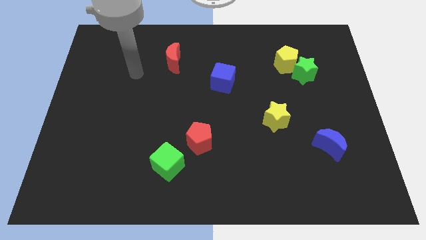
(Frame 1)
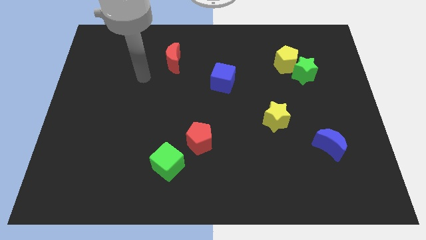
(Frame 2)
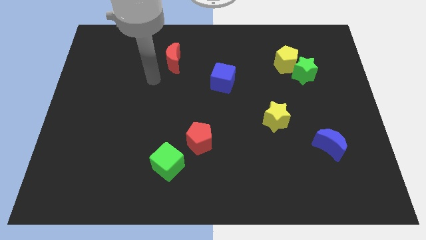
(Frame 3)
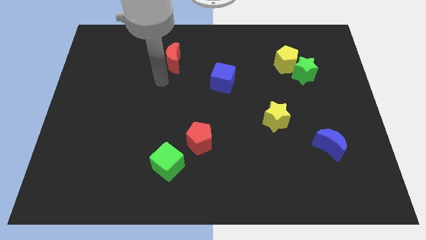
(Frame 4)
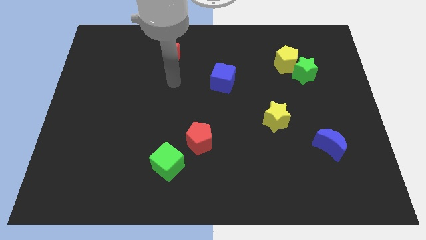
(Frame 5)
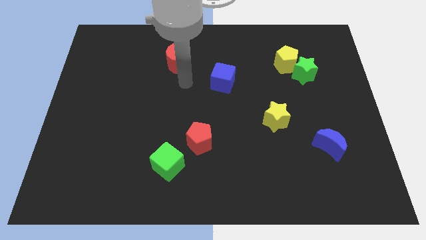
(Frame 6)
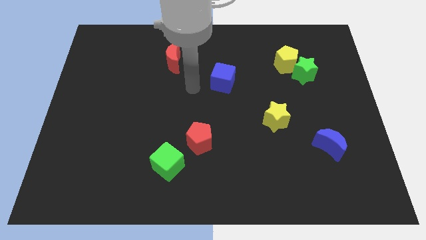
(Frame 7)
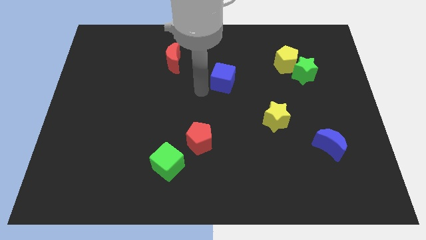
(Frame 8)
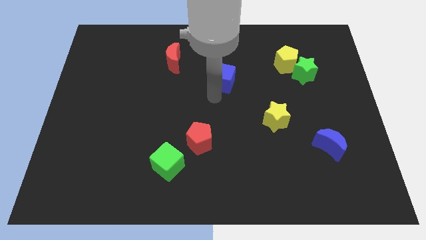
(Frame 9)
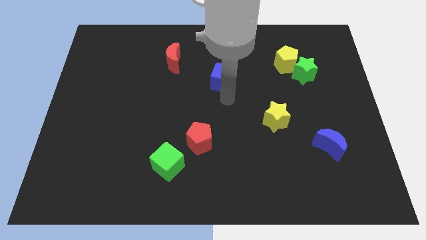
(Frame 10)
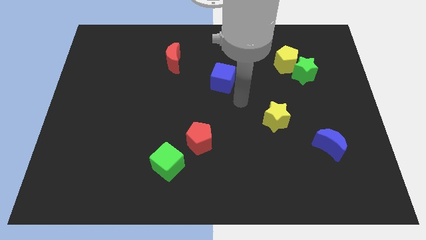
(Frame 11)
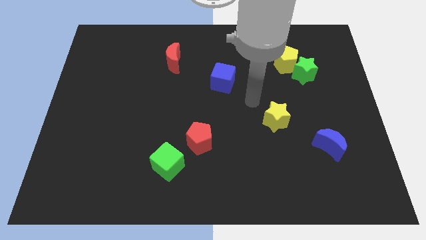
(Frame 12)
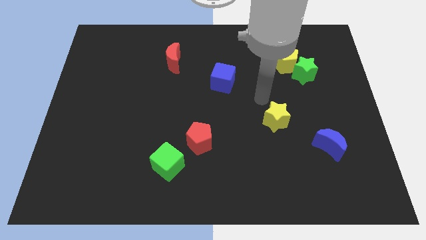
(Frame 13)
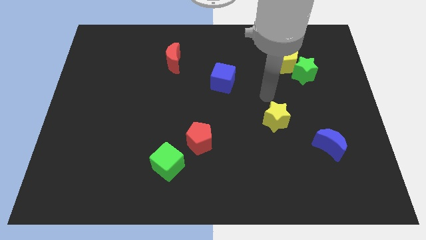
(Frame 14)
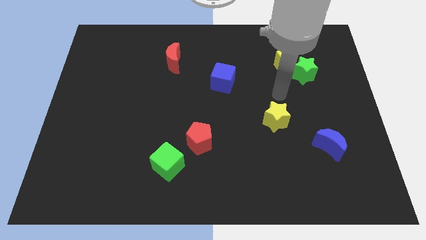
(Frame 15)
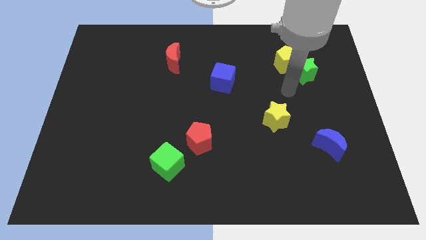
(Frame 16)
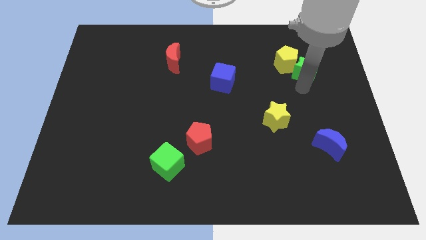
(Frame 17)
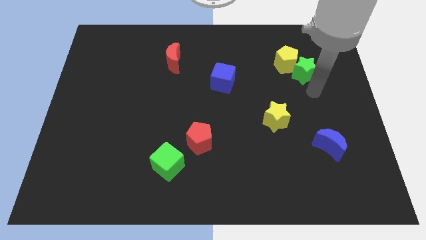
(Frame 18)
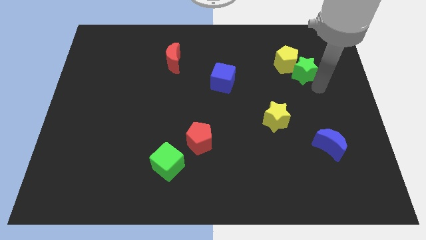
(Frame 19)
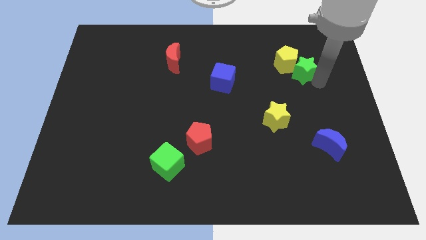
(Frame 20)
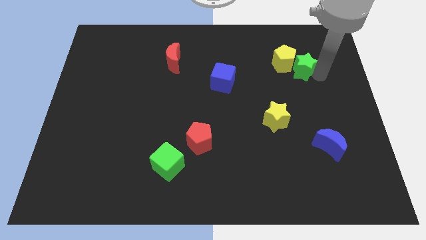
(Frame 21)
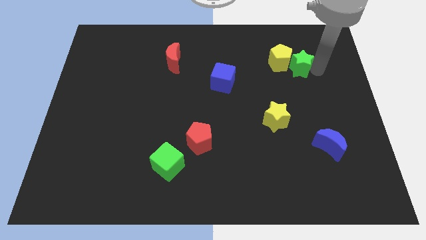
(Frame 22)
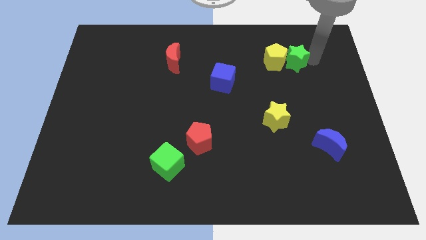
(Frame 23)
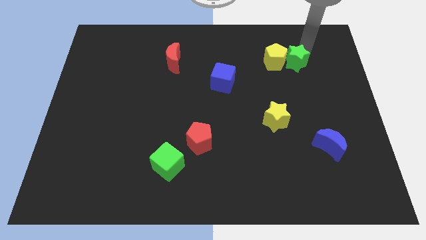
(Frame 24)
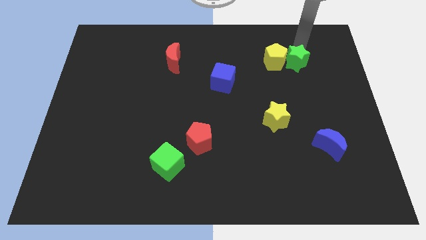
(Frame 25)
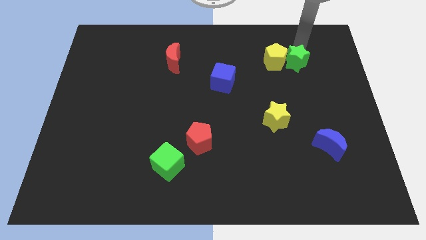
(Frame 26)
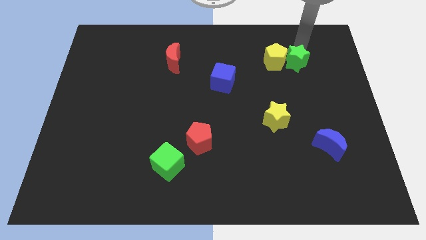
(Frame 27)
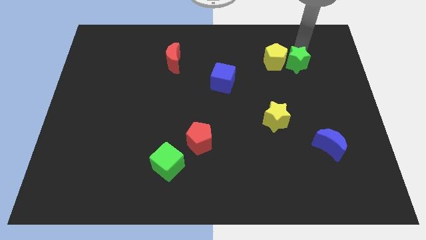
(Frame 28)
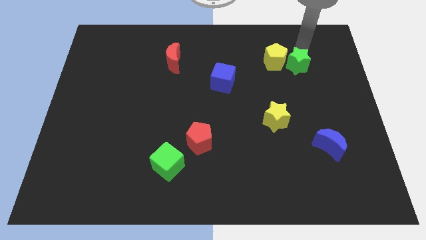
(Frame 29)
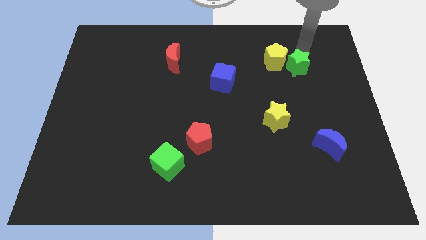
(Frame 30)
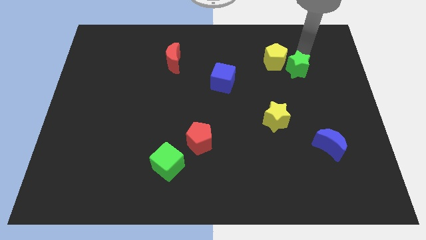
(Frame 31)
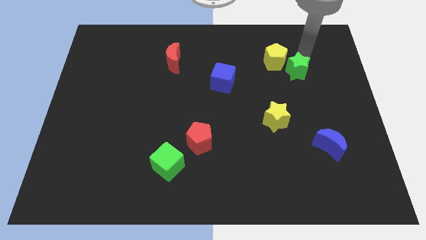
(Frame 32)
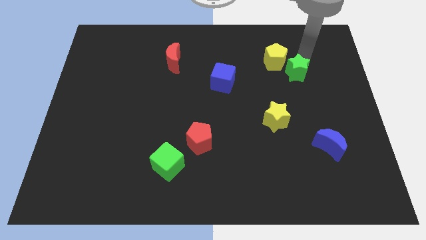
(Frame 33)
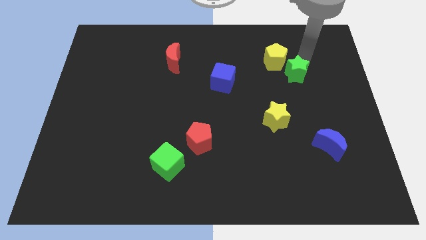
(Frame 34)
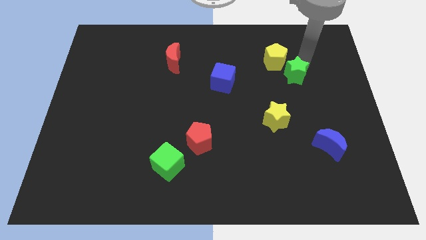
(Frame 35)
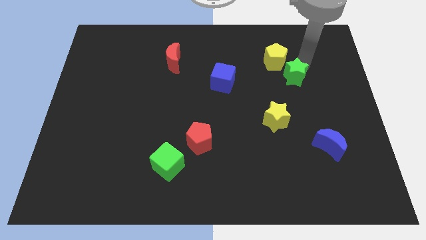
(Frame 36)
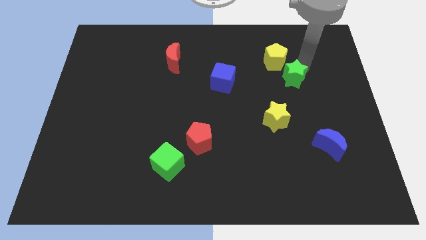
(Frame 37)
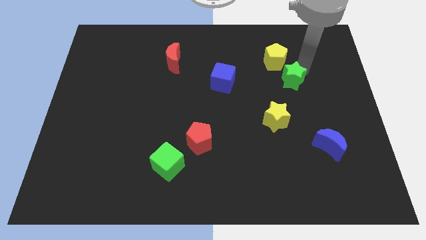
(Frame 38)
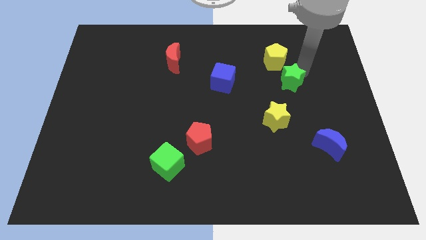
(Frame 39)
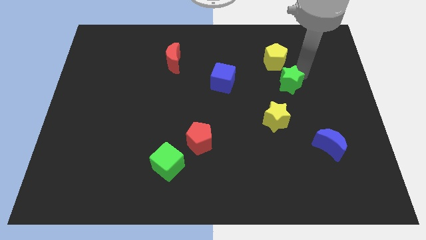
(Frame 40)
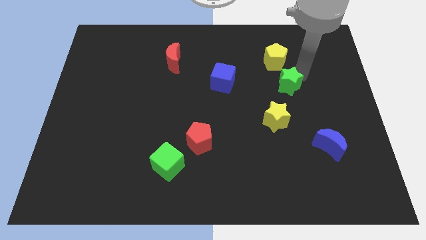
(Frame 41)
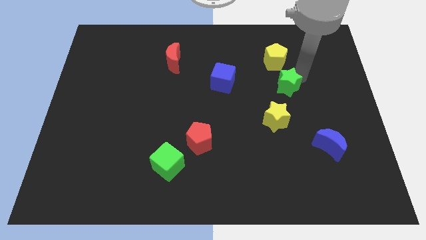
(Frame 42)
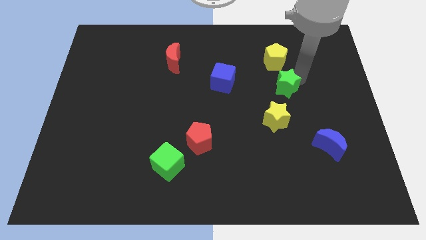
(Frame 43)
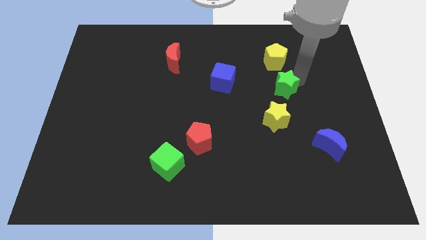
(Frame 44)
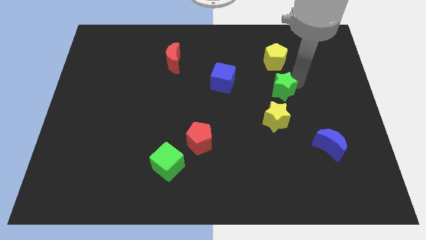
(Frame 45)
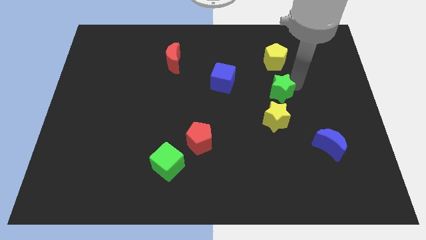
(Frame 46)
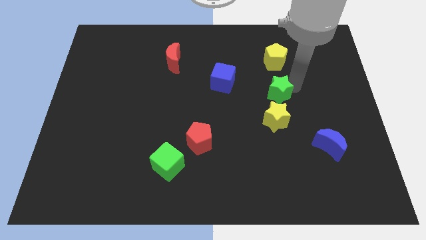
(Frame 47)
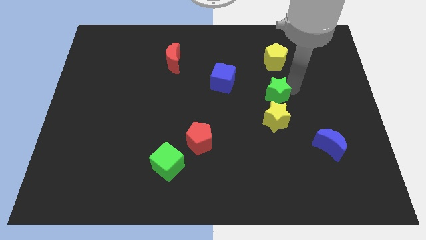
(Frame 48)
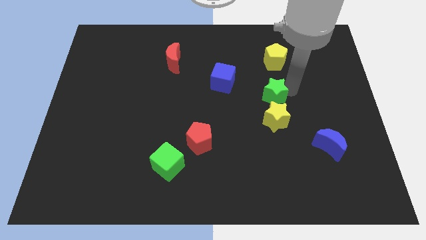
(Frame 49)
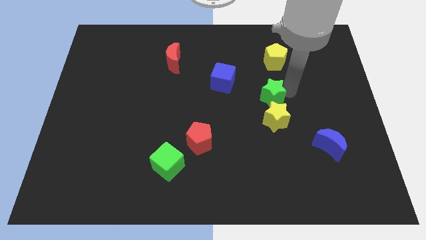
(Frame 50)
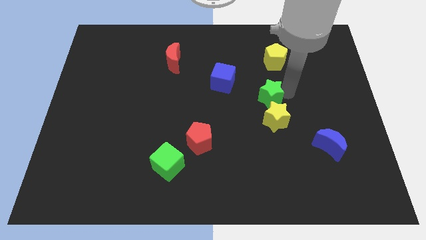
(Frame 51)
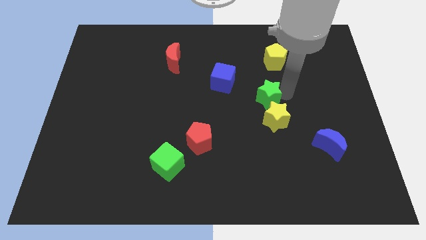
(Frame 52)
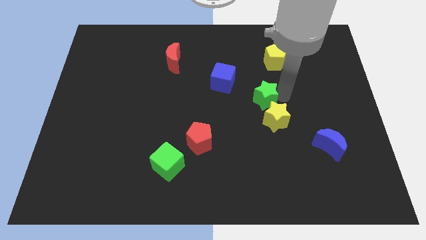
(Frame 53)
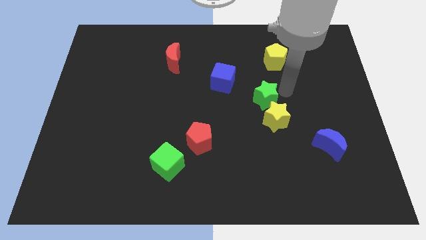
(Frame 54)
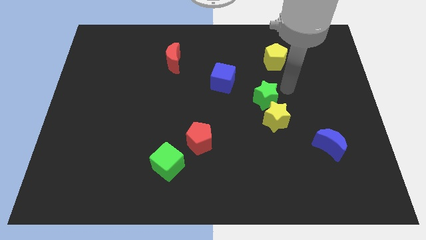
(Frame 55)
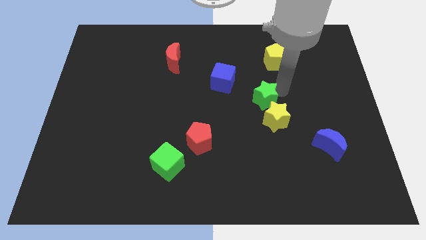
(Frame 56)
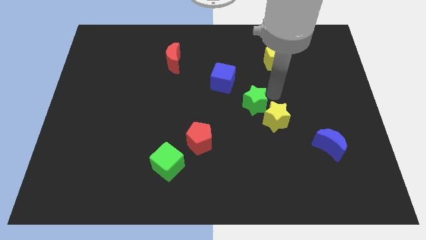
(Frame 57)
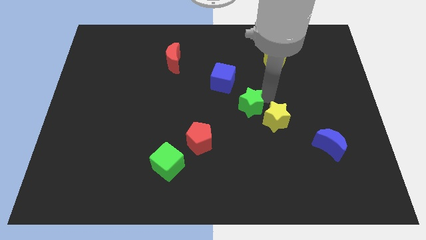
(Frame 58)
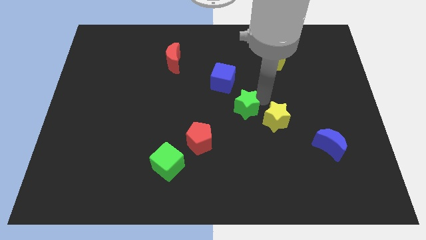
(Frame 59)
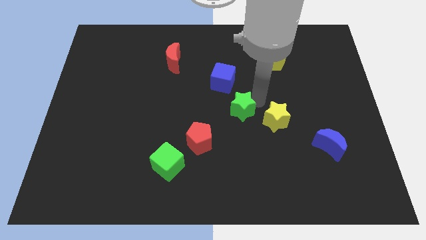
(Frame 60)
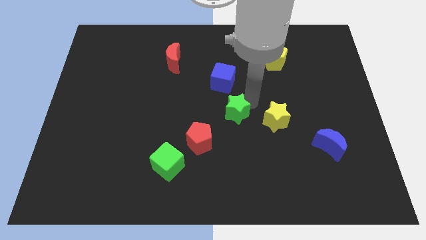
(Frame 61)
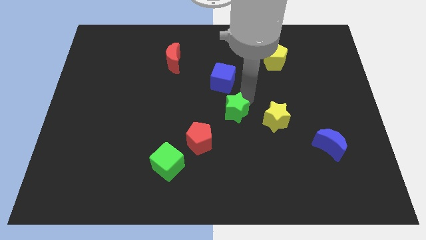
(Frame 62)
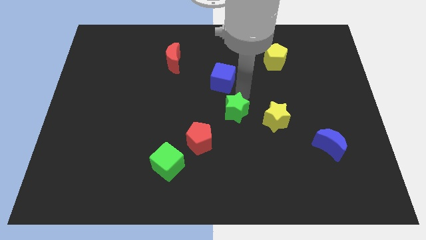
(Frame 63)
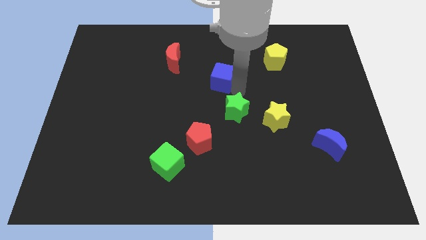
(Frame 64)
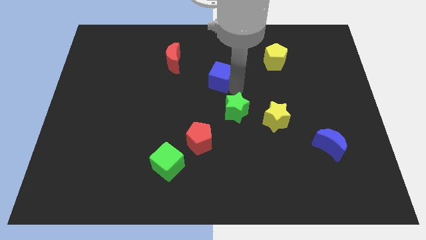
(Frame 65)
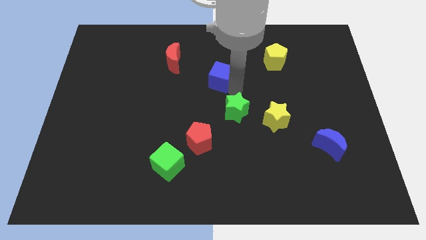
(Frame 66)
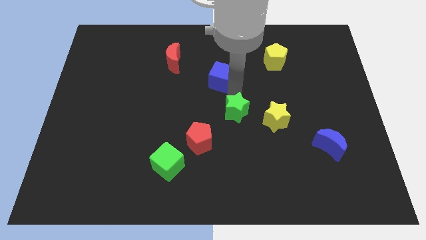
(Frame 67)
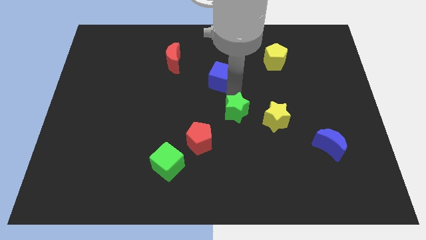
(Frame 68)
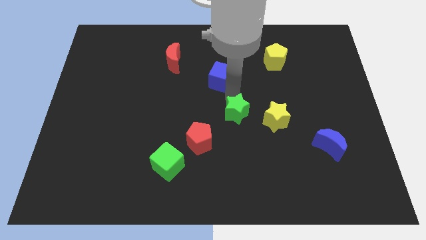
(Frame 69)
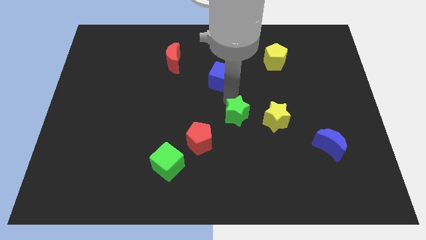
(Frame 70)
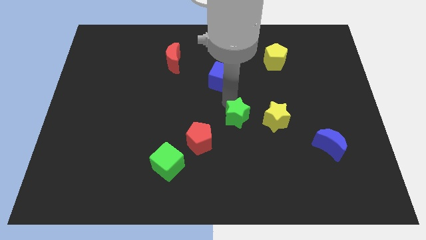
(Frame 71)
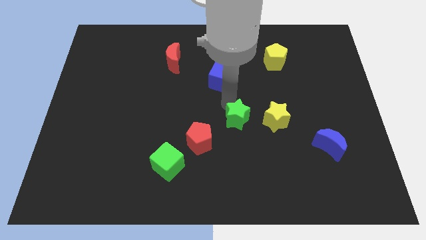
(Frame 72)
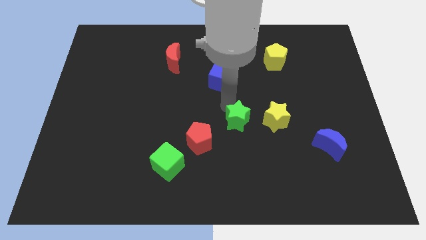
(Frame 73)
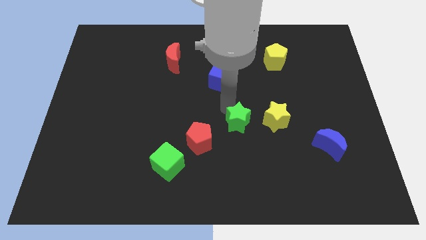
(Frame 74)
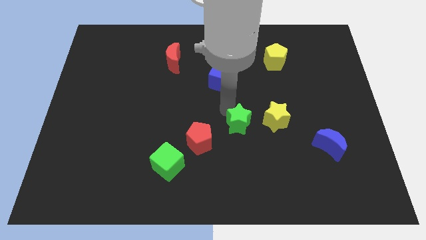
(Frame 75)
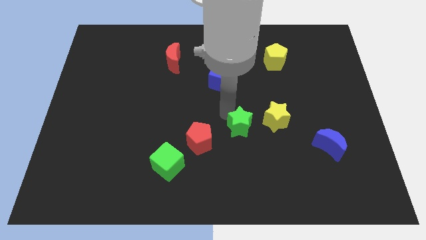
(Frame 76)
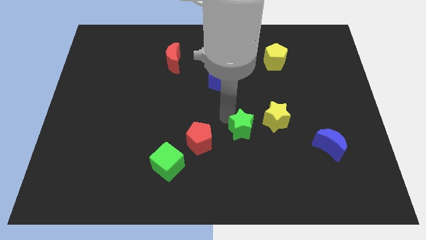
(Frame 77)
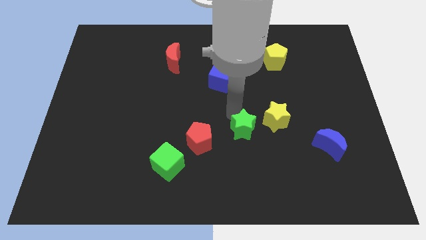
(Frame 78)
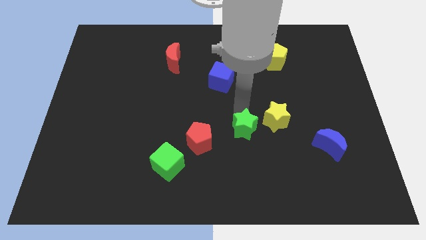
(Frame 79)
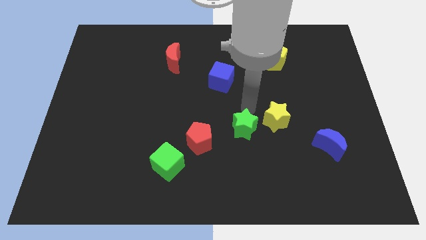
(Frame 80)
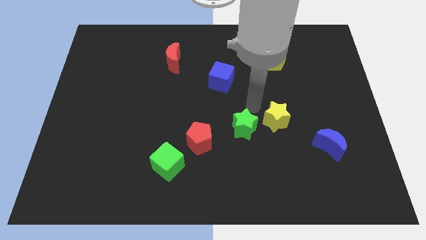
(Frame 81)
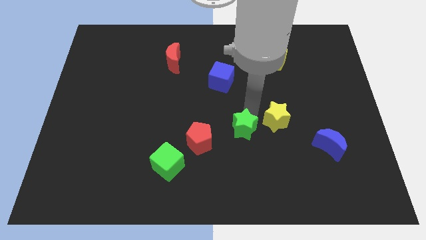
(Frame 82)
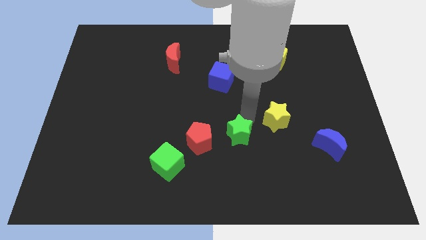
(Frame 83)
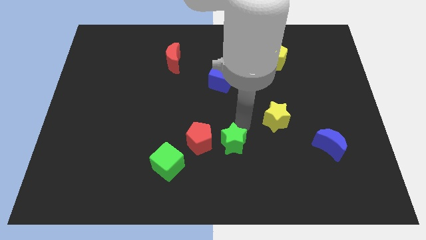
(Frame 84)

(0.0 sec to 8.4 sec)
put the green star to the bottom right of the red pentagon
